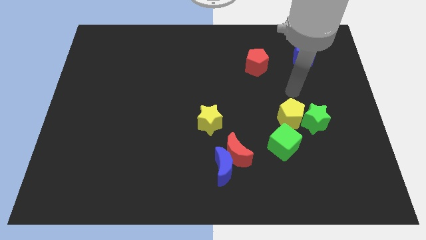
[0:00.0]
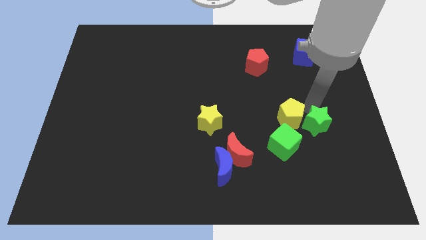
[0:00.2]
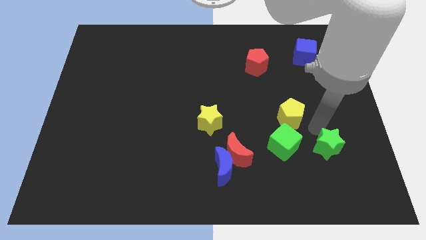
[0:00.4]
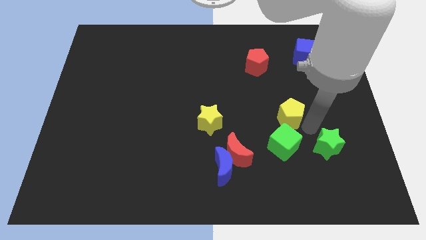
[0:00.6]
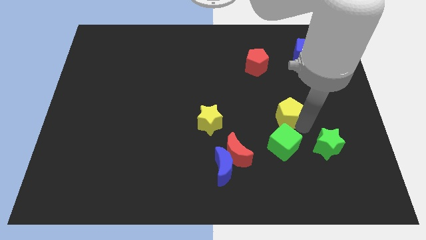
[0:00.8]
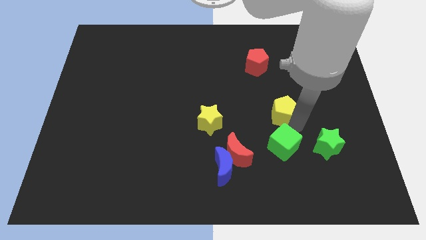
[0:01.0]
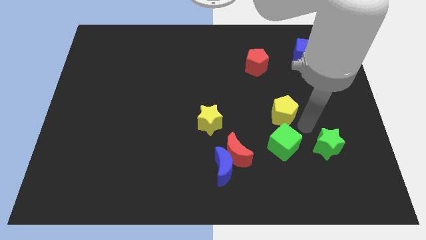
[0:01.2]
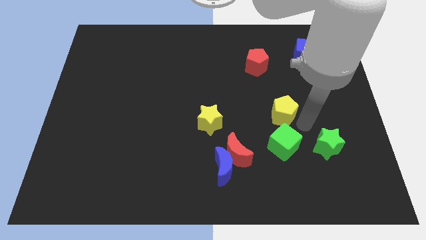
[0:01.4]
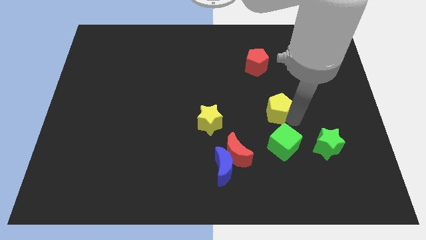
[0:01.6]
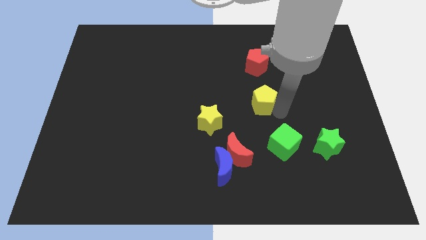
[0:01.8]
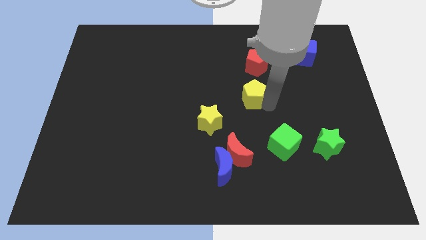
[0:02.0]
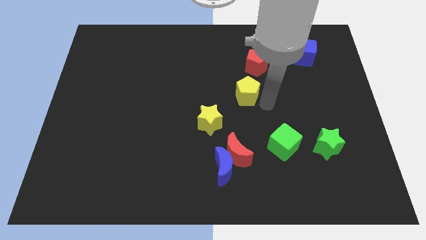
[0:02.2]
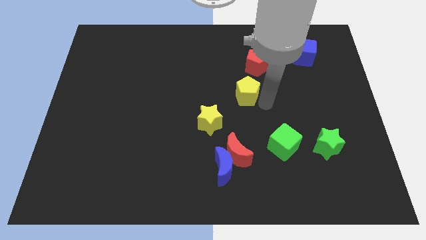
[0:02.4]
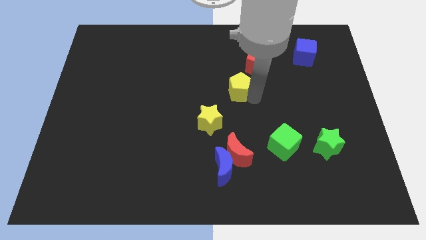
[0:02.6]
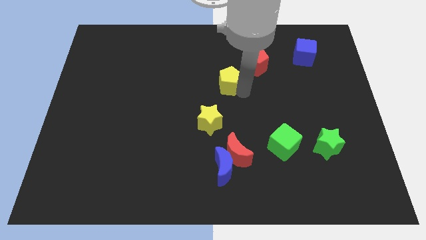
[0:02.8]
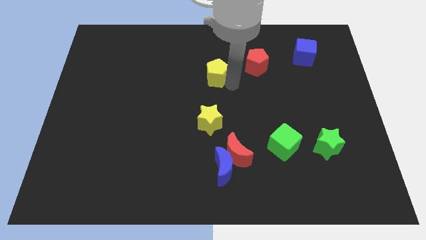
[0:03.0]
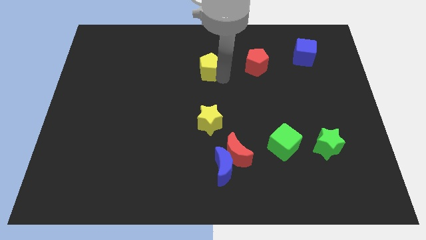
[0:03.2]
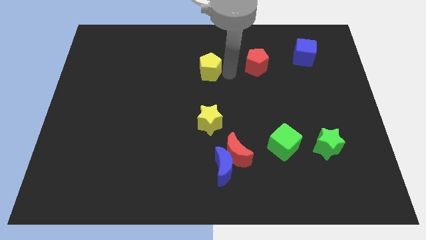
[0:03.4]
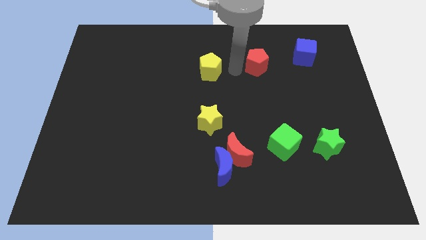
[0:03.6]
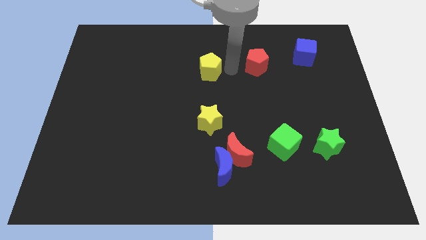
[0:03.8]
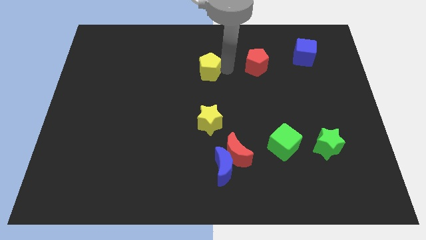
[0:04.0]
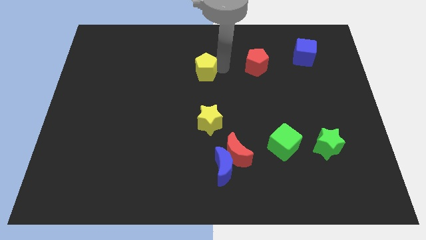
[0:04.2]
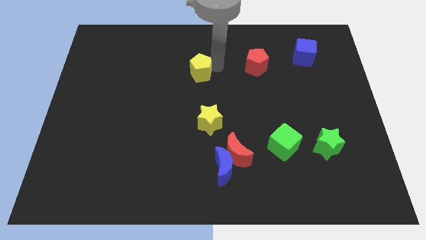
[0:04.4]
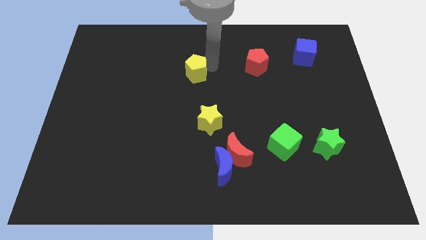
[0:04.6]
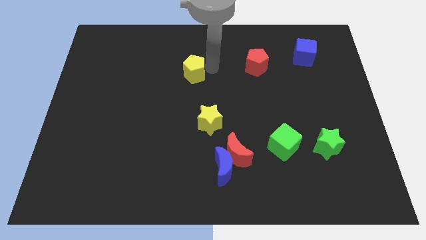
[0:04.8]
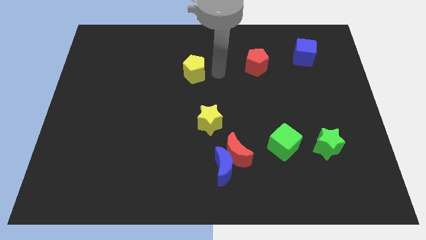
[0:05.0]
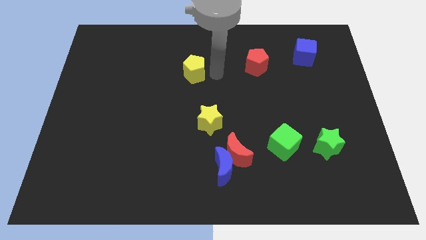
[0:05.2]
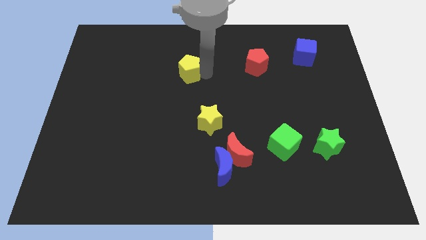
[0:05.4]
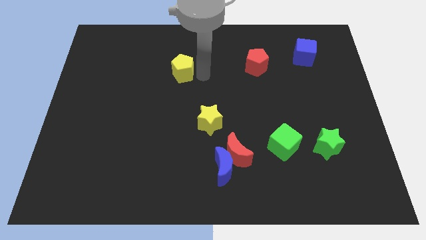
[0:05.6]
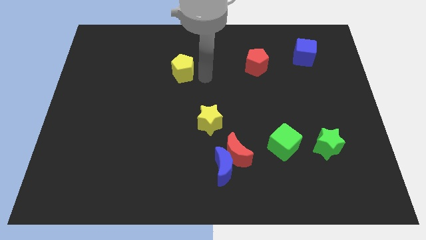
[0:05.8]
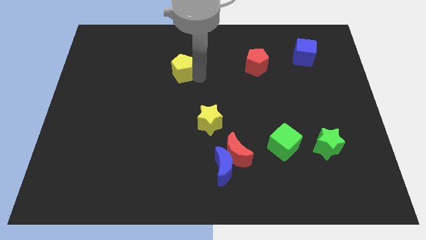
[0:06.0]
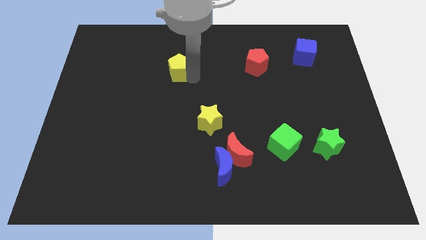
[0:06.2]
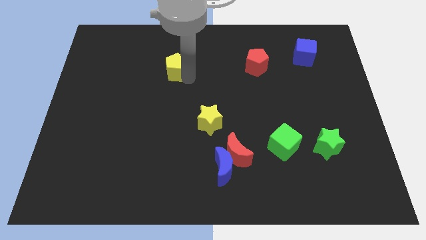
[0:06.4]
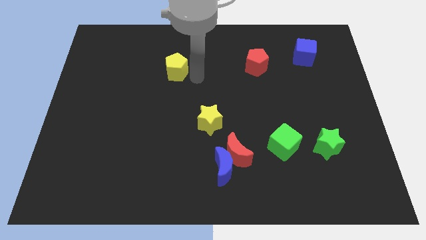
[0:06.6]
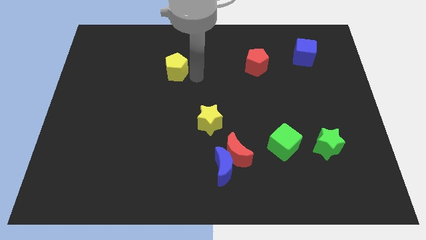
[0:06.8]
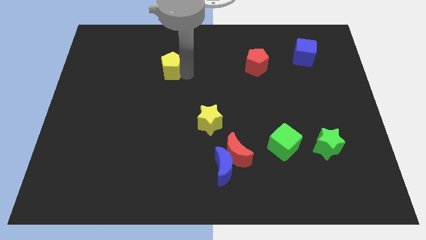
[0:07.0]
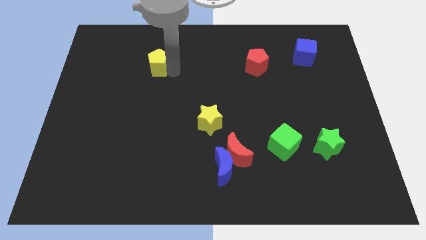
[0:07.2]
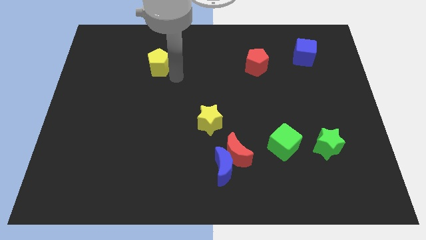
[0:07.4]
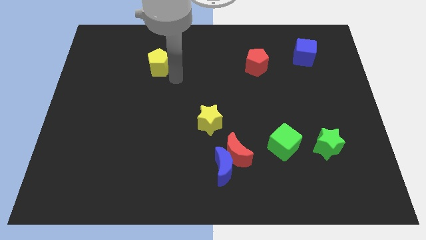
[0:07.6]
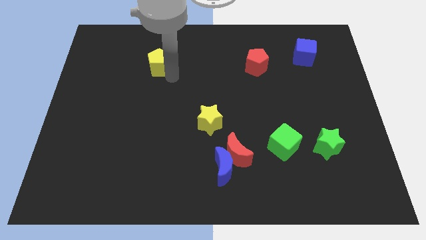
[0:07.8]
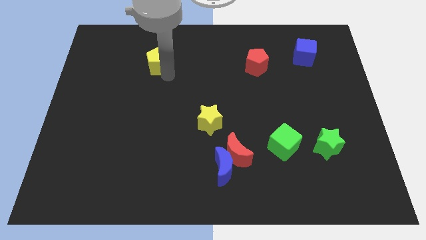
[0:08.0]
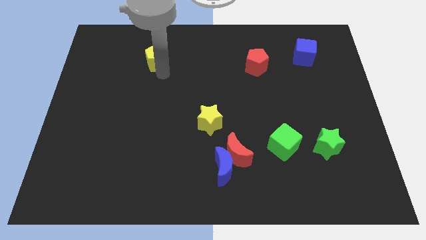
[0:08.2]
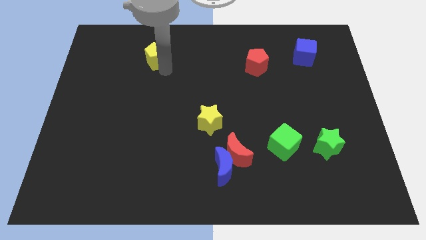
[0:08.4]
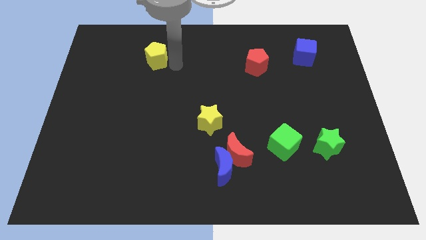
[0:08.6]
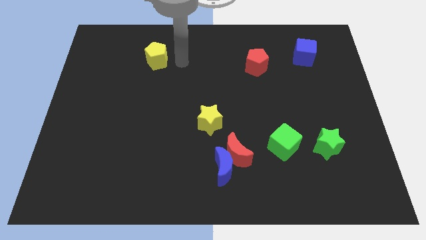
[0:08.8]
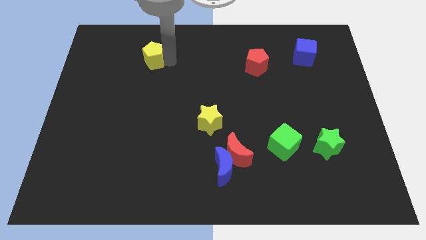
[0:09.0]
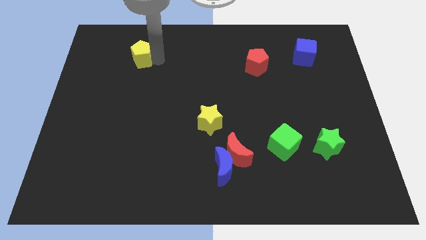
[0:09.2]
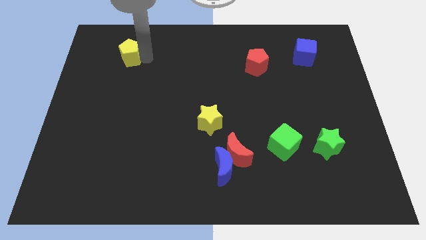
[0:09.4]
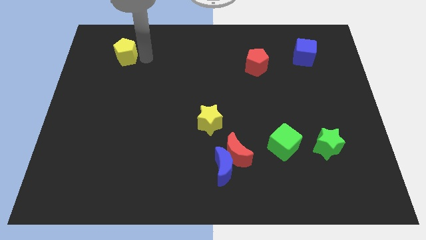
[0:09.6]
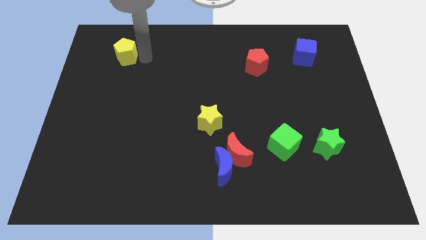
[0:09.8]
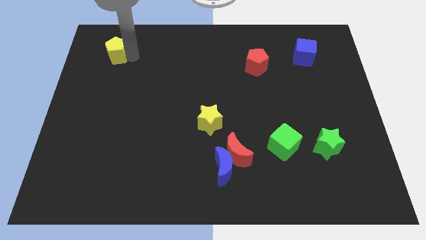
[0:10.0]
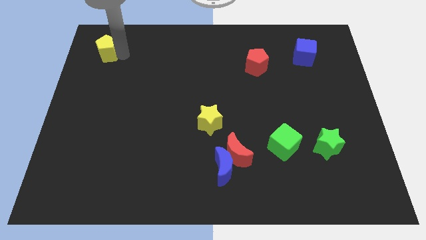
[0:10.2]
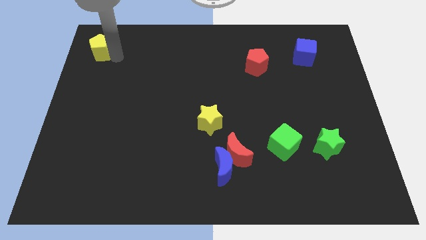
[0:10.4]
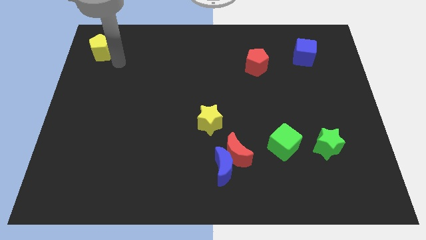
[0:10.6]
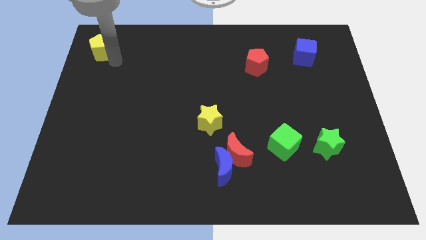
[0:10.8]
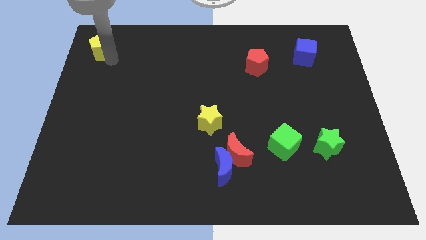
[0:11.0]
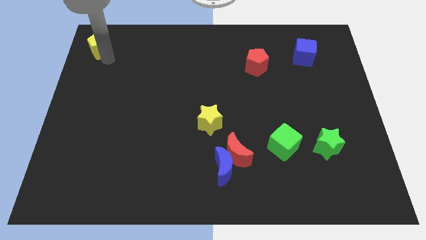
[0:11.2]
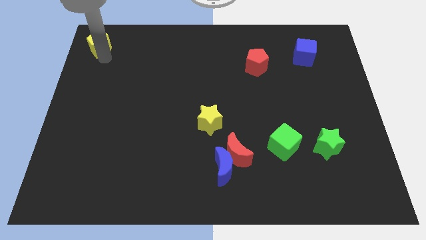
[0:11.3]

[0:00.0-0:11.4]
push the yellow pentagon to the upper left corner

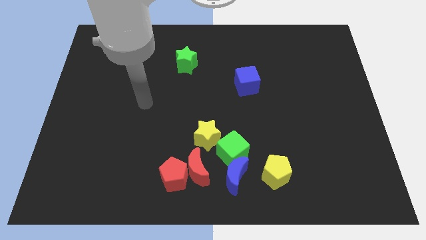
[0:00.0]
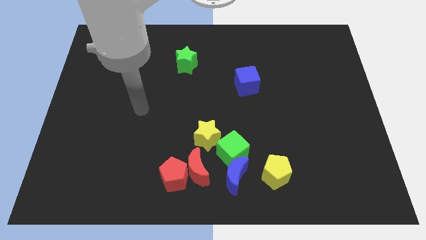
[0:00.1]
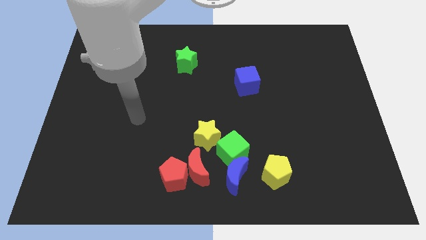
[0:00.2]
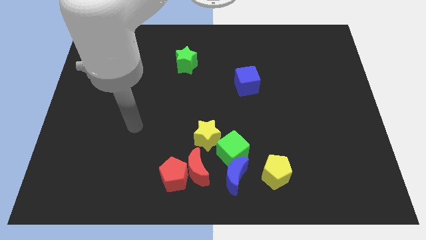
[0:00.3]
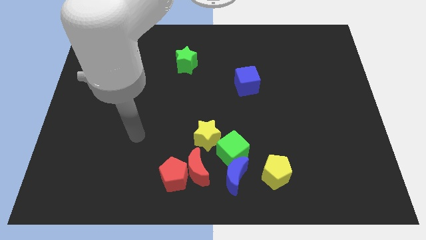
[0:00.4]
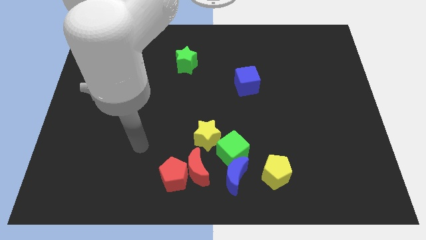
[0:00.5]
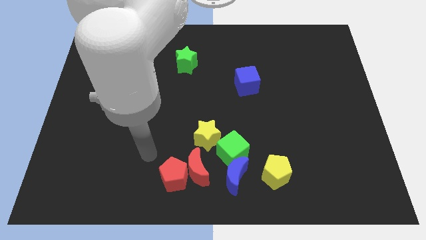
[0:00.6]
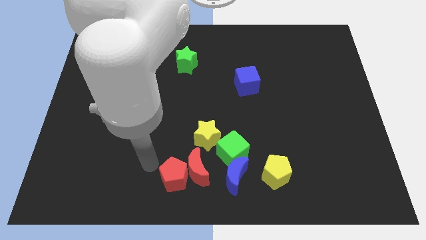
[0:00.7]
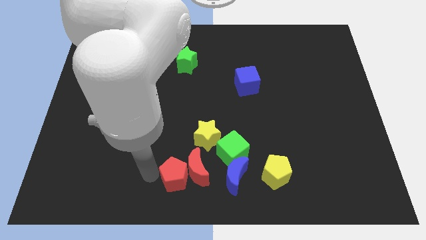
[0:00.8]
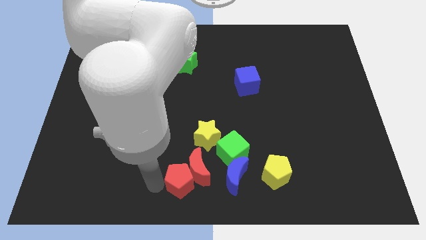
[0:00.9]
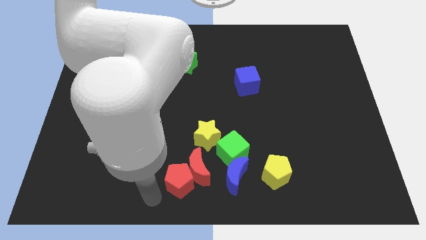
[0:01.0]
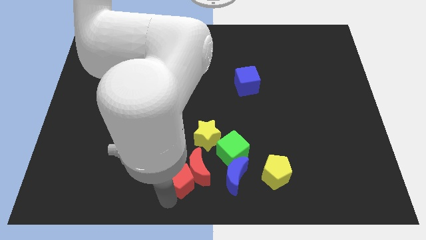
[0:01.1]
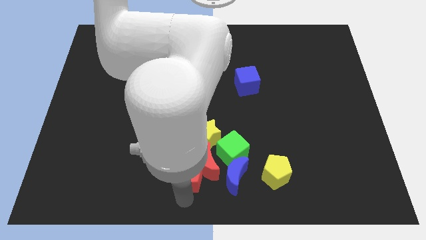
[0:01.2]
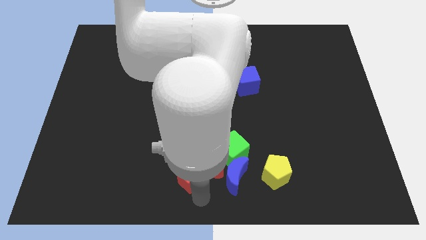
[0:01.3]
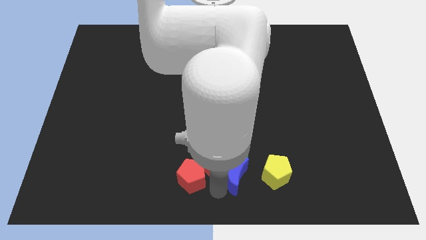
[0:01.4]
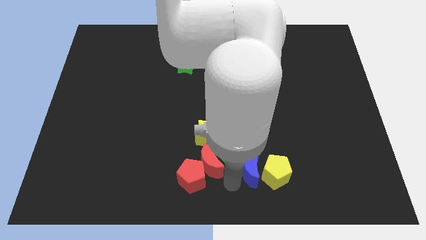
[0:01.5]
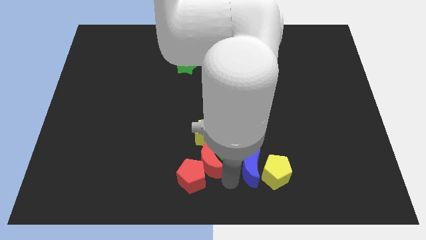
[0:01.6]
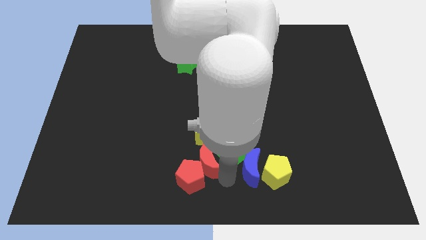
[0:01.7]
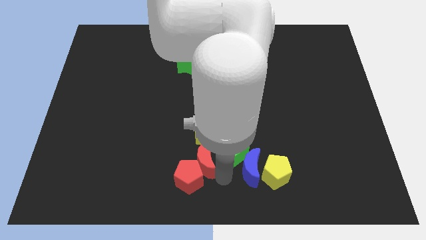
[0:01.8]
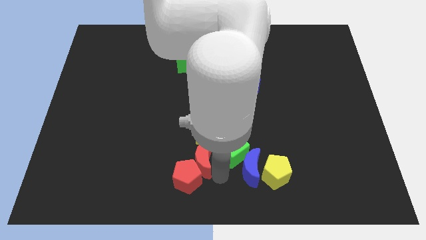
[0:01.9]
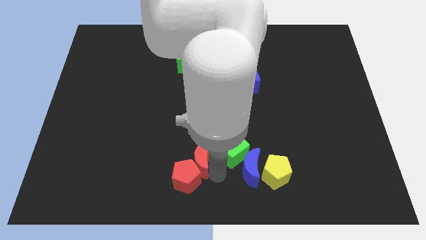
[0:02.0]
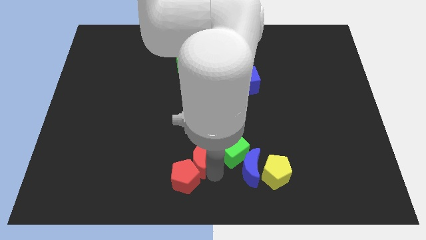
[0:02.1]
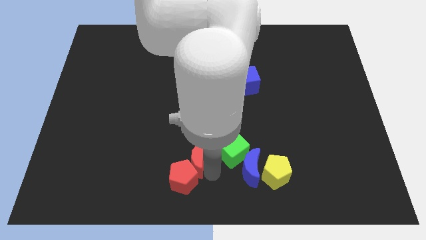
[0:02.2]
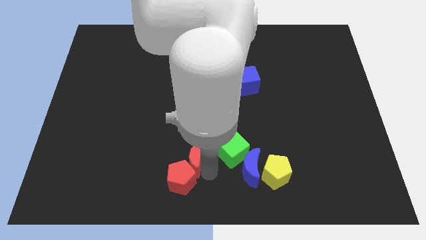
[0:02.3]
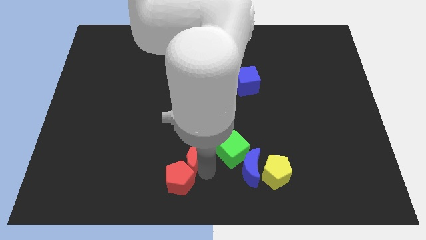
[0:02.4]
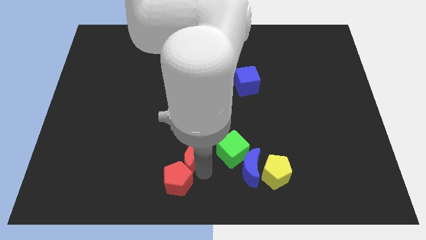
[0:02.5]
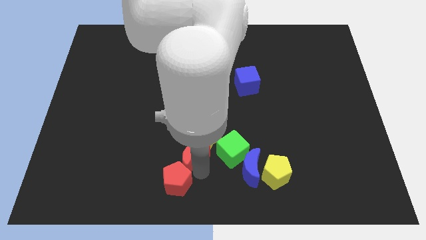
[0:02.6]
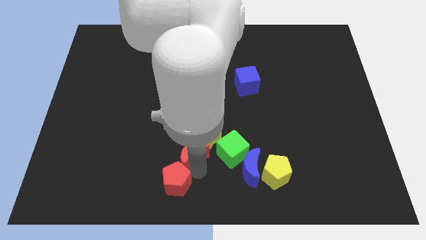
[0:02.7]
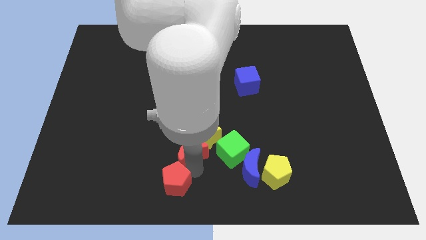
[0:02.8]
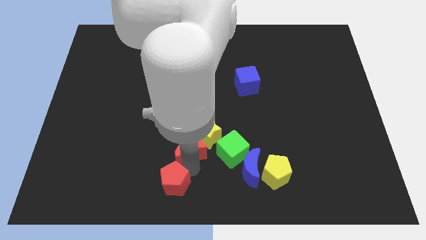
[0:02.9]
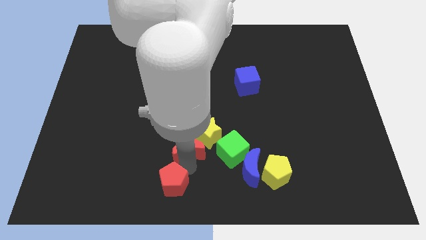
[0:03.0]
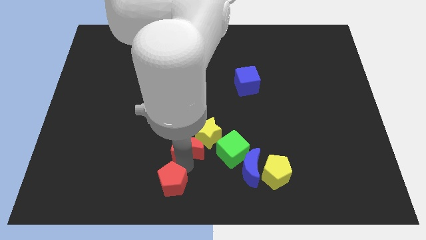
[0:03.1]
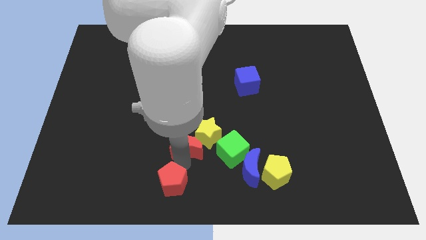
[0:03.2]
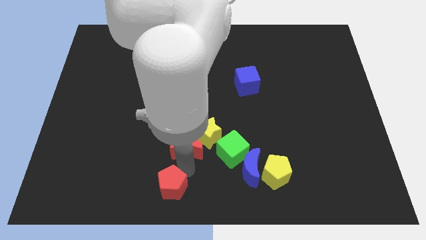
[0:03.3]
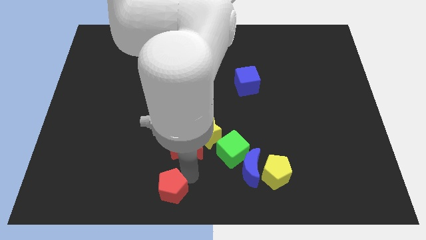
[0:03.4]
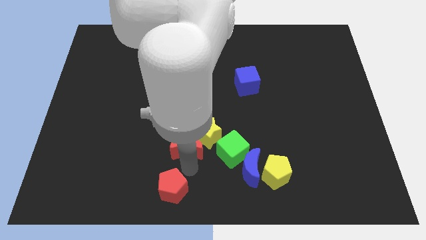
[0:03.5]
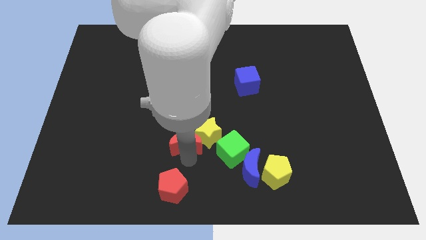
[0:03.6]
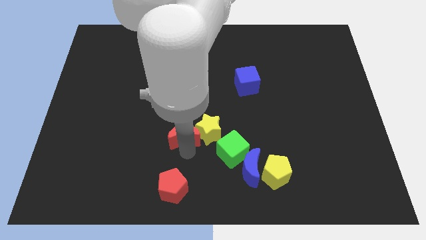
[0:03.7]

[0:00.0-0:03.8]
move the red moon to the middle
